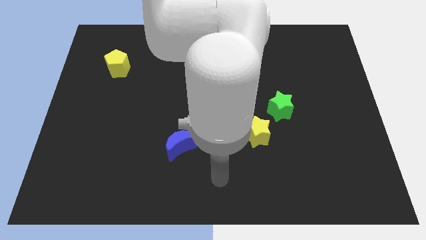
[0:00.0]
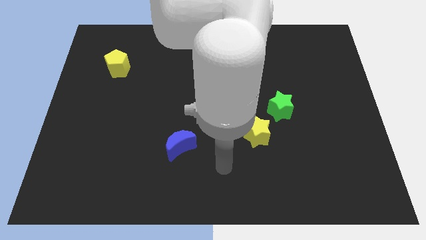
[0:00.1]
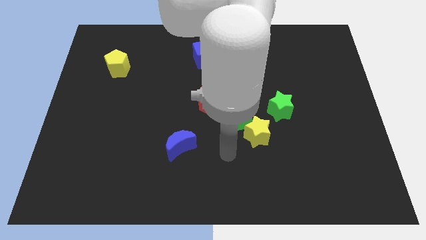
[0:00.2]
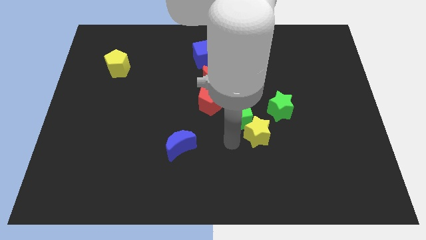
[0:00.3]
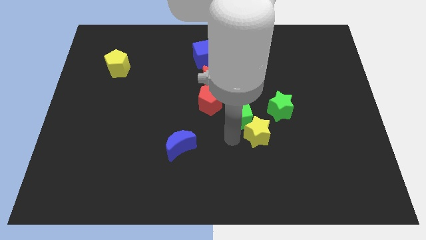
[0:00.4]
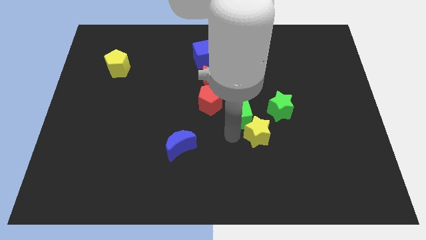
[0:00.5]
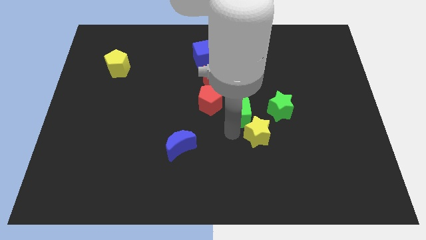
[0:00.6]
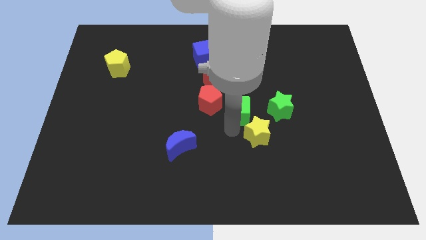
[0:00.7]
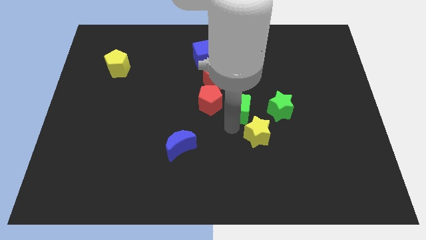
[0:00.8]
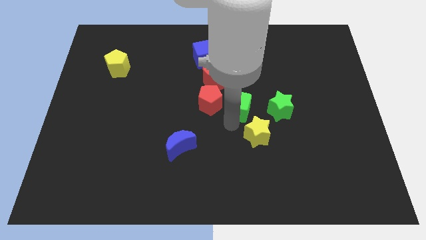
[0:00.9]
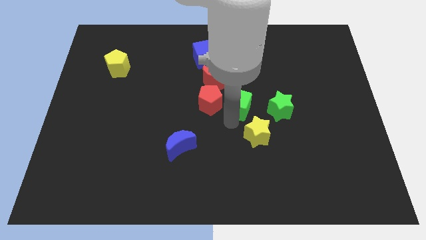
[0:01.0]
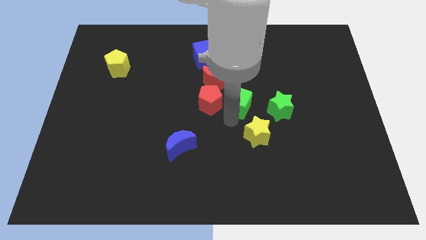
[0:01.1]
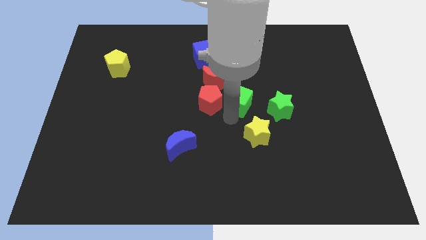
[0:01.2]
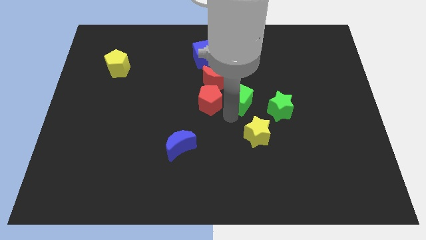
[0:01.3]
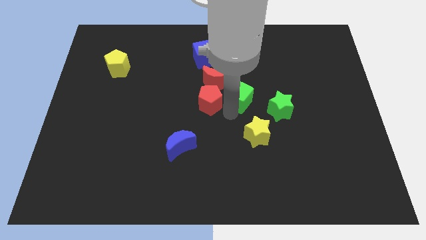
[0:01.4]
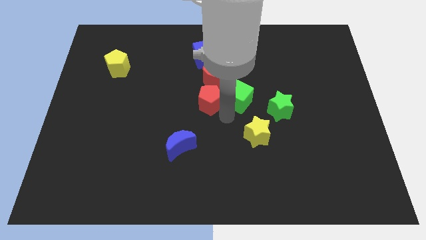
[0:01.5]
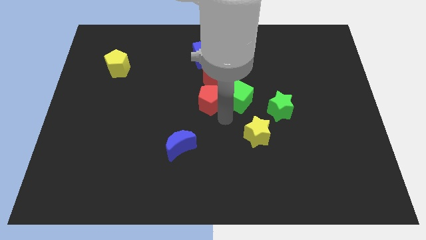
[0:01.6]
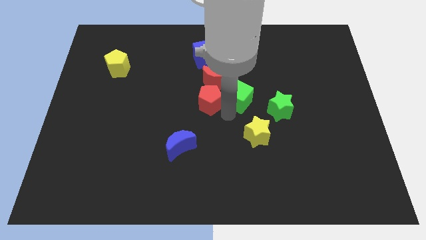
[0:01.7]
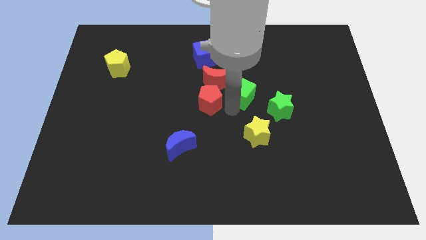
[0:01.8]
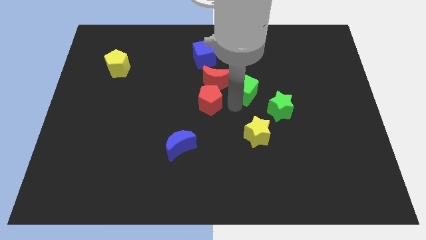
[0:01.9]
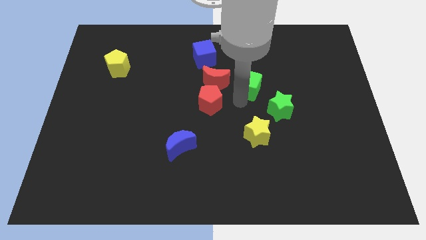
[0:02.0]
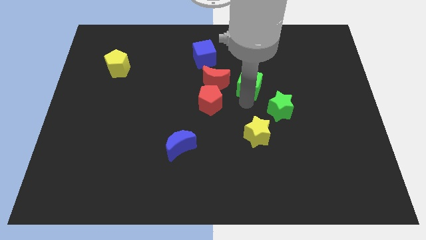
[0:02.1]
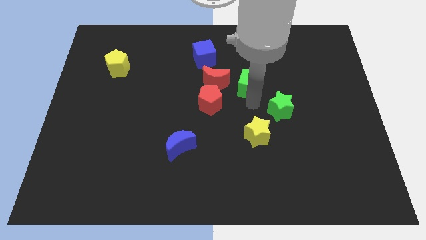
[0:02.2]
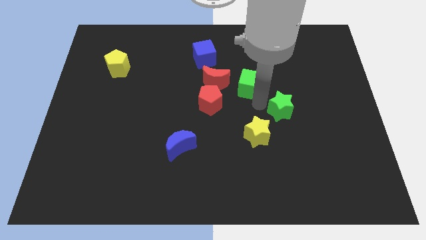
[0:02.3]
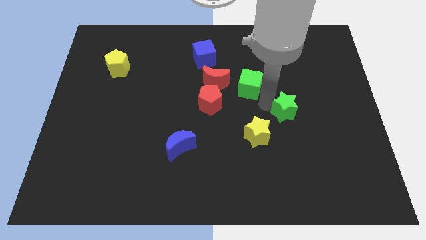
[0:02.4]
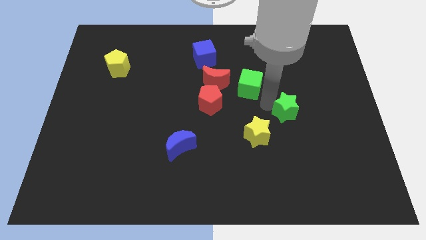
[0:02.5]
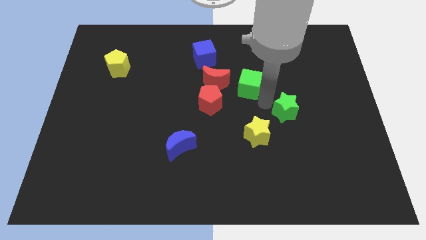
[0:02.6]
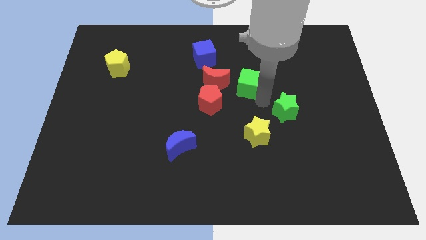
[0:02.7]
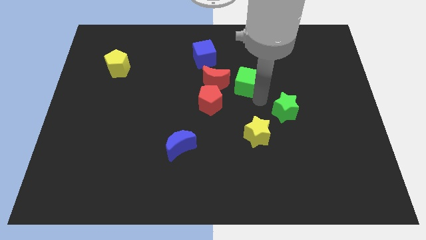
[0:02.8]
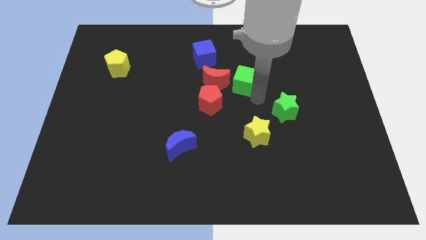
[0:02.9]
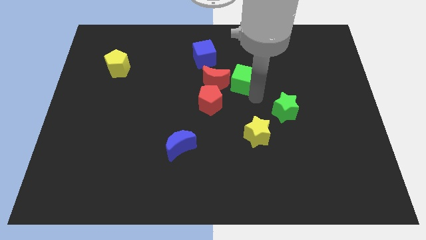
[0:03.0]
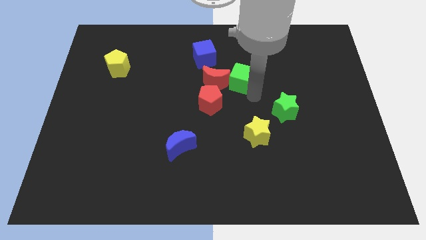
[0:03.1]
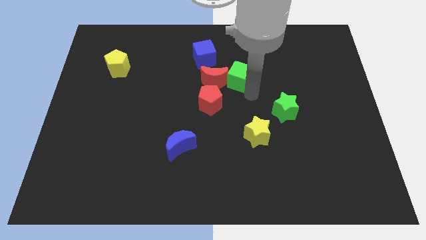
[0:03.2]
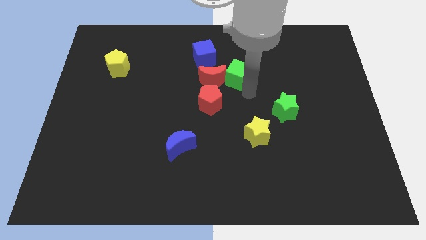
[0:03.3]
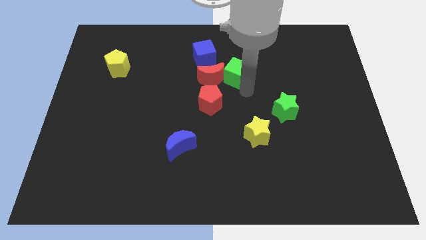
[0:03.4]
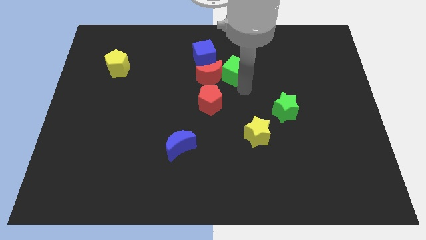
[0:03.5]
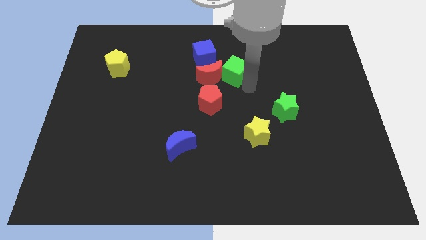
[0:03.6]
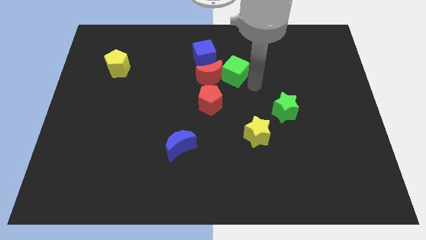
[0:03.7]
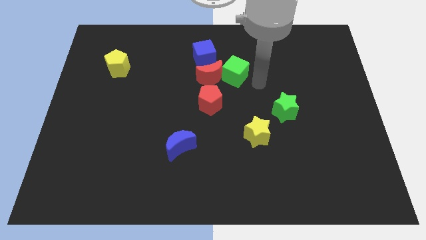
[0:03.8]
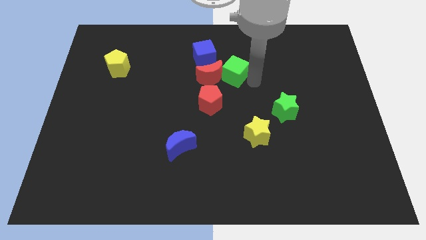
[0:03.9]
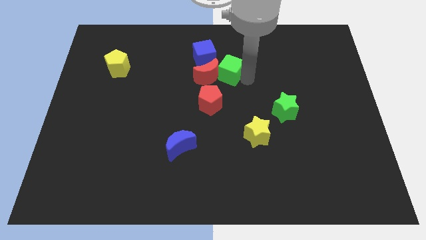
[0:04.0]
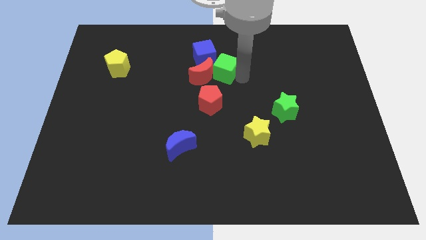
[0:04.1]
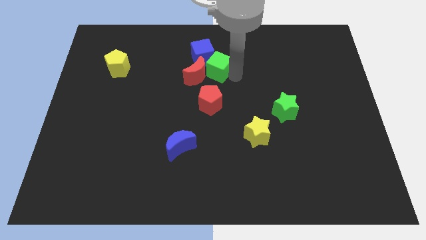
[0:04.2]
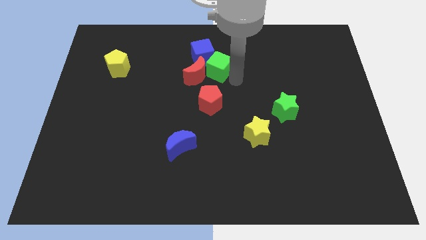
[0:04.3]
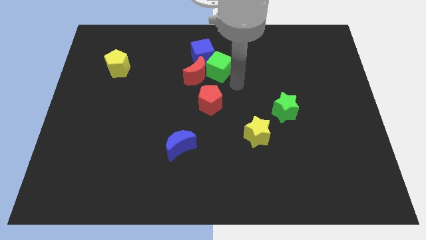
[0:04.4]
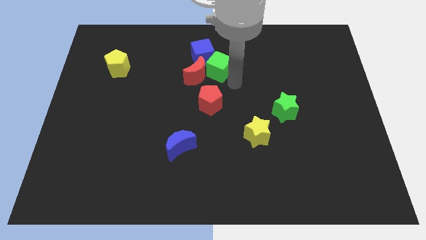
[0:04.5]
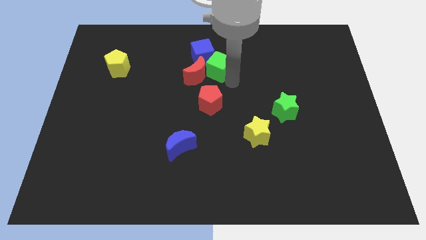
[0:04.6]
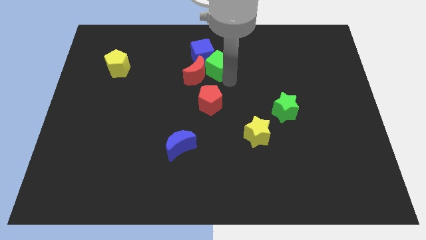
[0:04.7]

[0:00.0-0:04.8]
move the green cube next to the blue cube

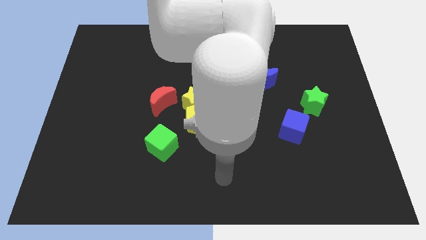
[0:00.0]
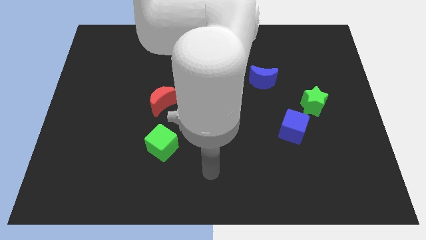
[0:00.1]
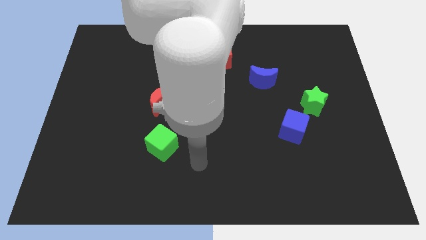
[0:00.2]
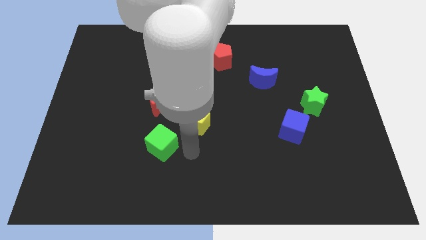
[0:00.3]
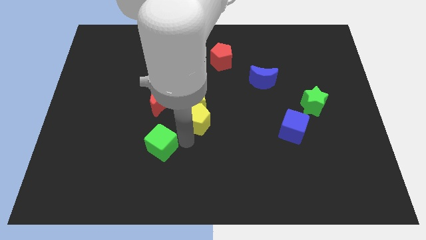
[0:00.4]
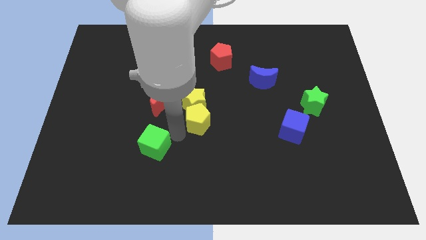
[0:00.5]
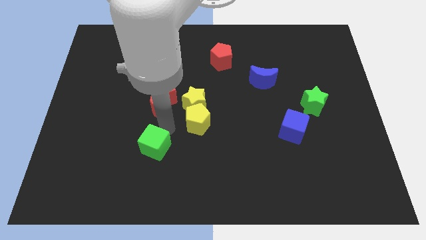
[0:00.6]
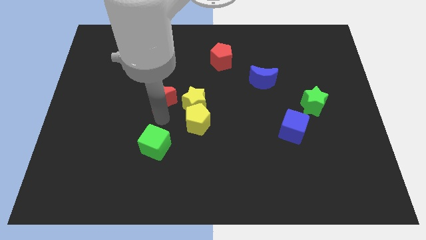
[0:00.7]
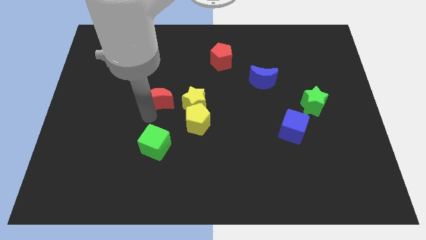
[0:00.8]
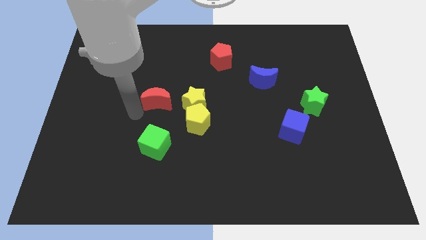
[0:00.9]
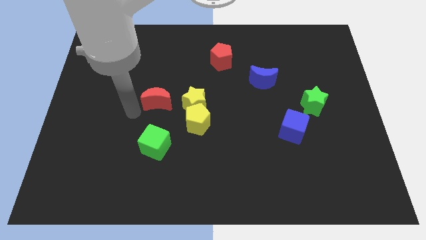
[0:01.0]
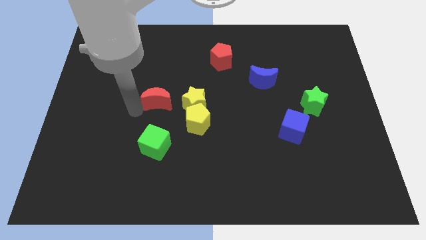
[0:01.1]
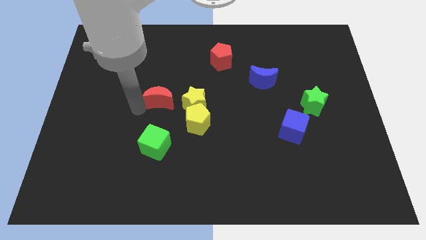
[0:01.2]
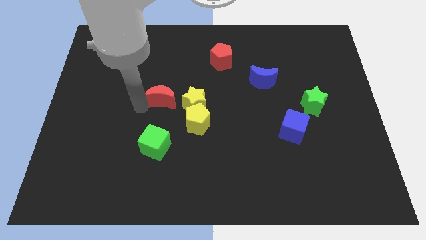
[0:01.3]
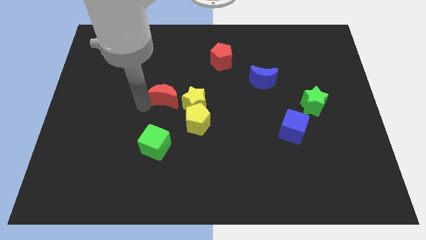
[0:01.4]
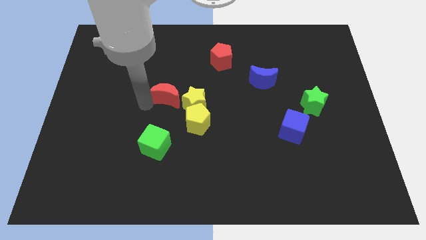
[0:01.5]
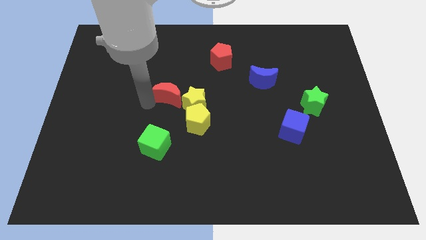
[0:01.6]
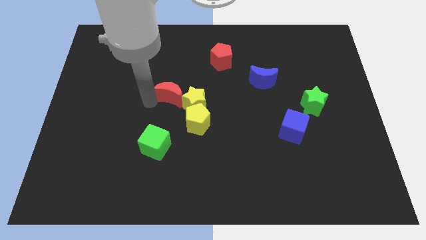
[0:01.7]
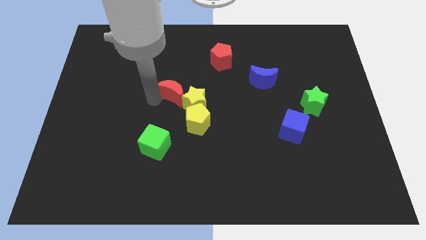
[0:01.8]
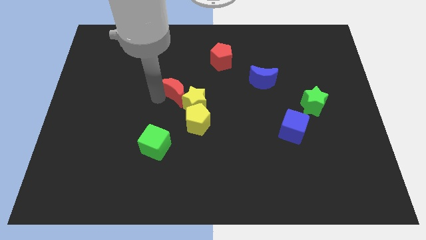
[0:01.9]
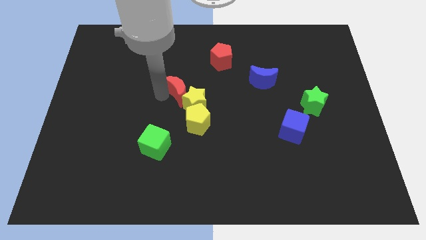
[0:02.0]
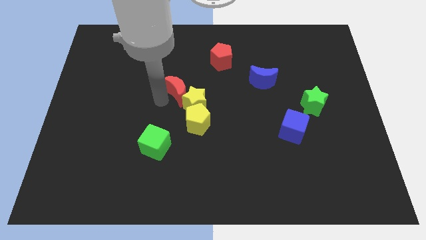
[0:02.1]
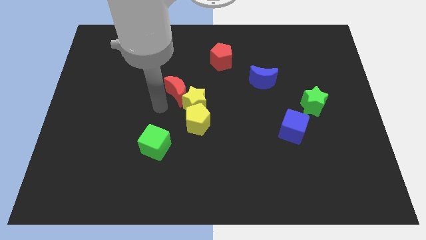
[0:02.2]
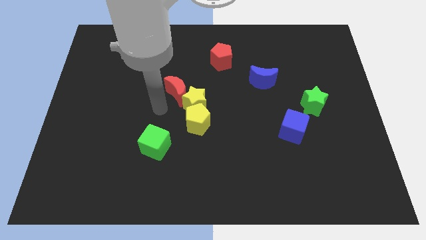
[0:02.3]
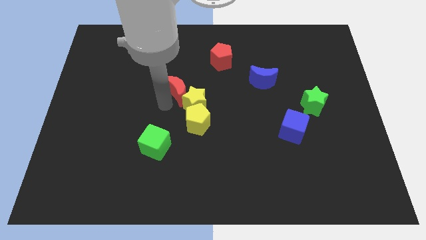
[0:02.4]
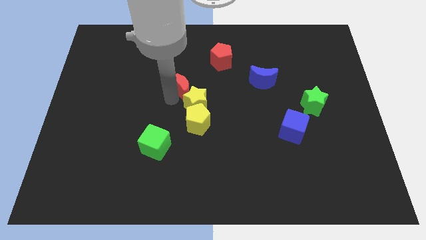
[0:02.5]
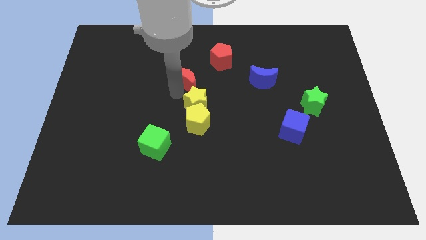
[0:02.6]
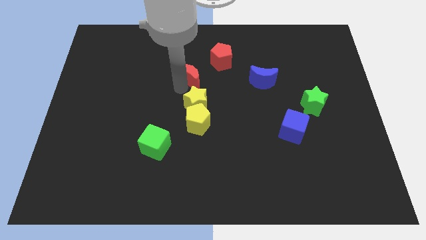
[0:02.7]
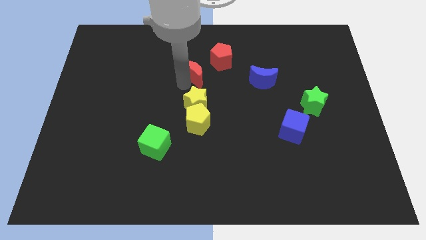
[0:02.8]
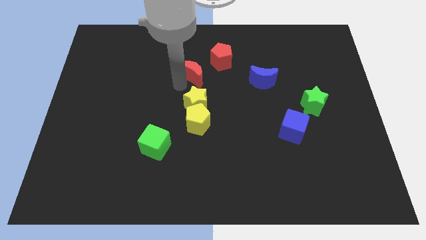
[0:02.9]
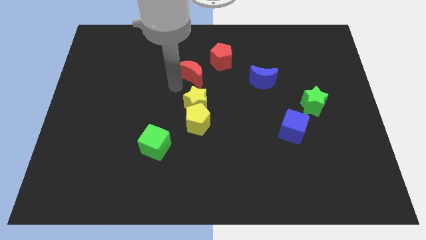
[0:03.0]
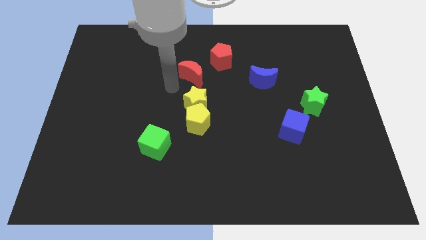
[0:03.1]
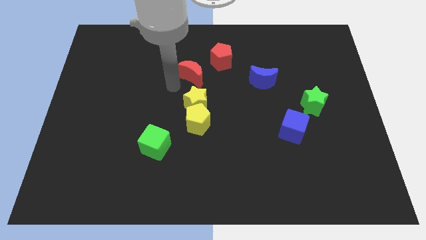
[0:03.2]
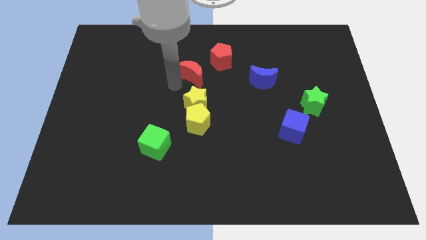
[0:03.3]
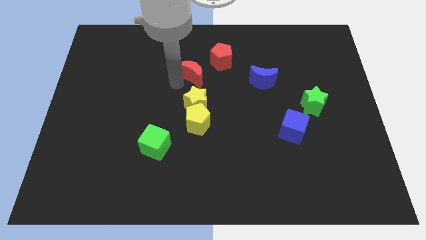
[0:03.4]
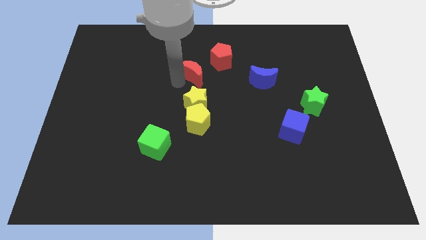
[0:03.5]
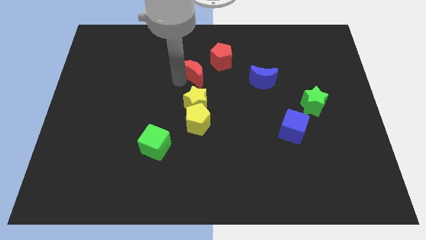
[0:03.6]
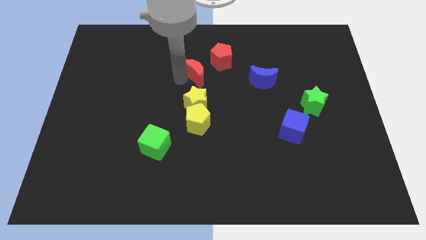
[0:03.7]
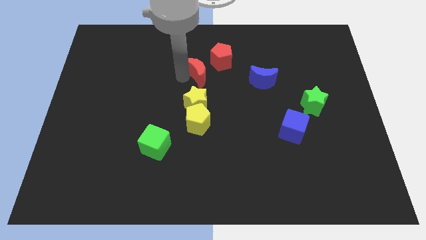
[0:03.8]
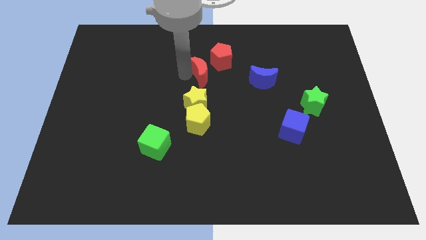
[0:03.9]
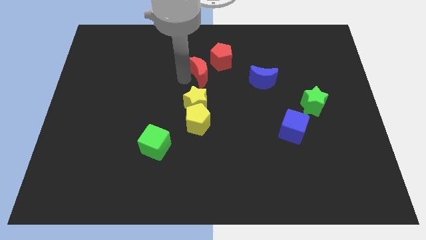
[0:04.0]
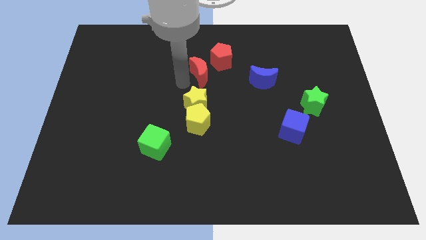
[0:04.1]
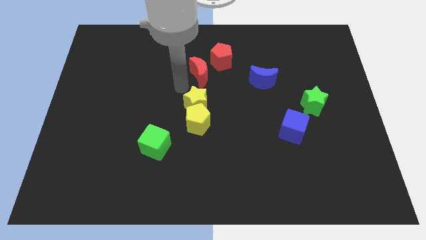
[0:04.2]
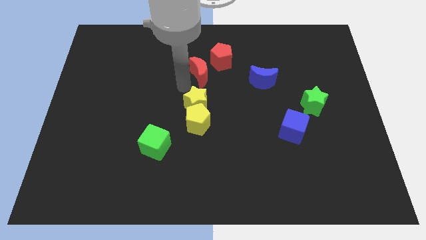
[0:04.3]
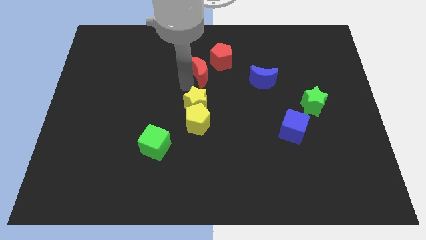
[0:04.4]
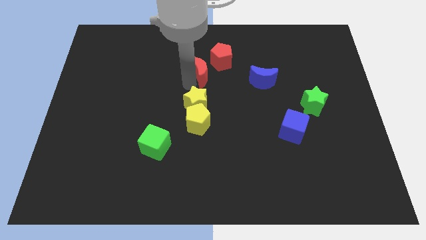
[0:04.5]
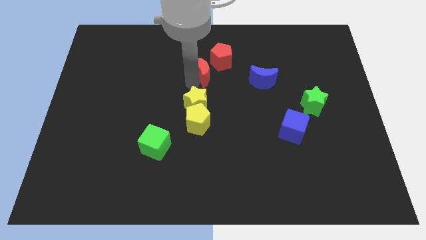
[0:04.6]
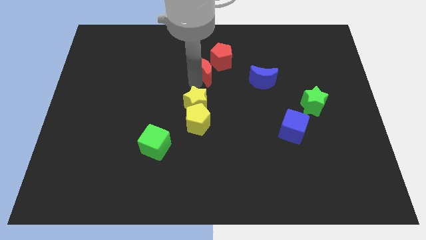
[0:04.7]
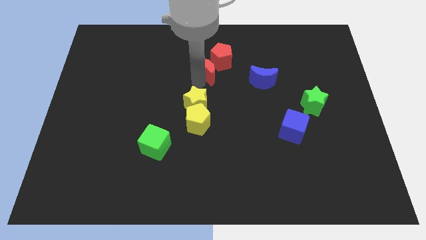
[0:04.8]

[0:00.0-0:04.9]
move the red moon next to the red pentagon
